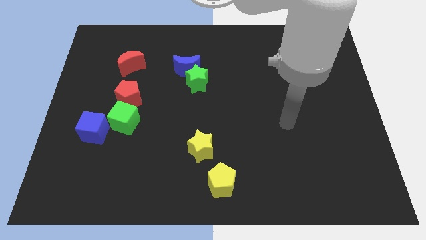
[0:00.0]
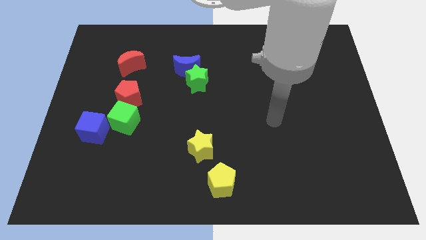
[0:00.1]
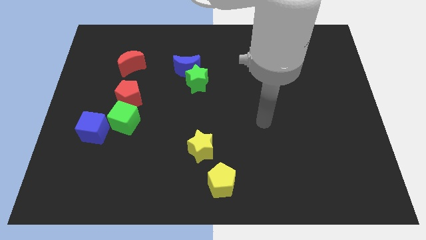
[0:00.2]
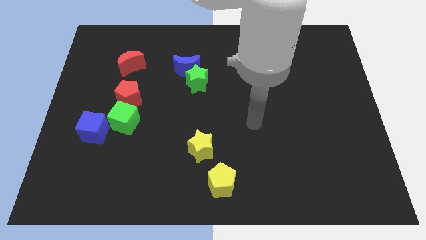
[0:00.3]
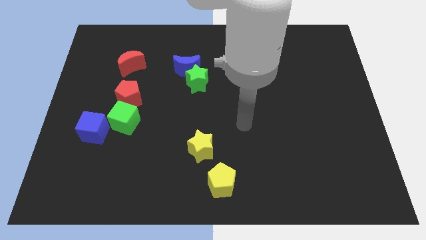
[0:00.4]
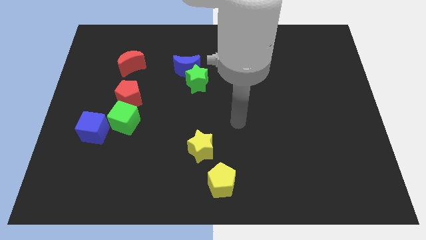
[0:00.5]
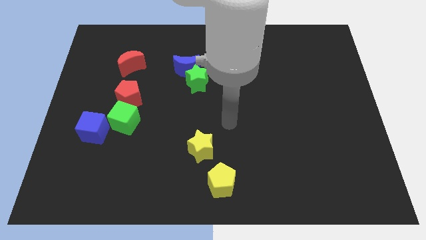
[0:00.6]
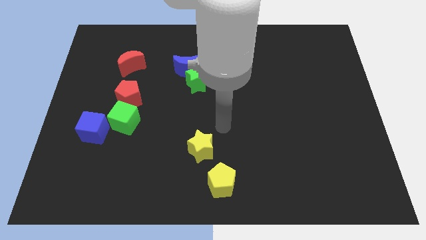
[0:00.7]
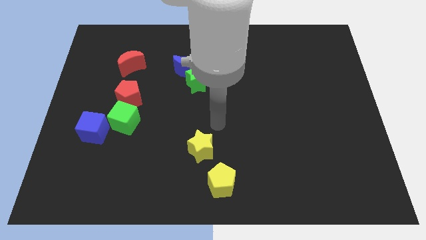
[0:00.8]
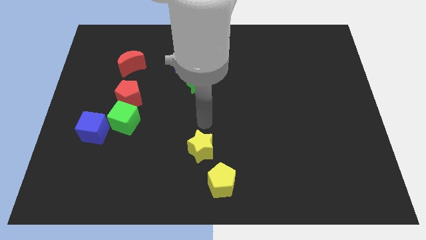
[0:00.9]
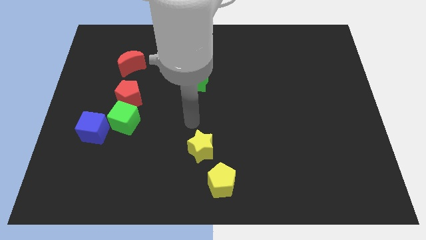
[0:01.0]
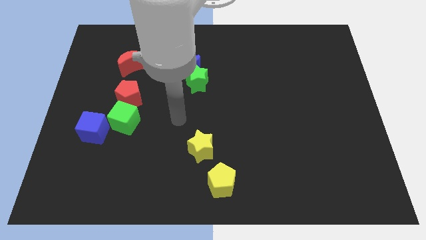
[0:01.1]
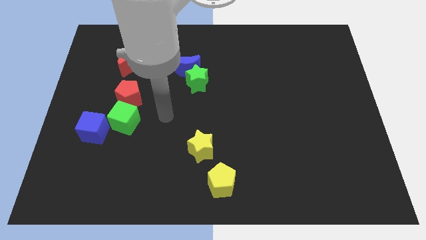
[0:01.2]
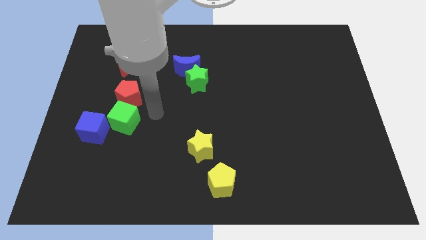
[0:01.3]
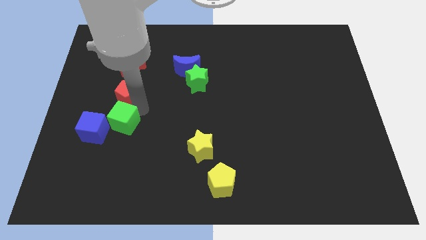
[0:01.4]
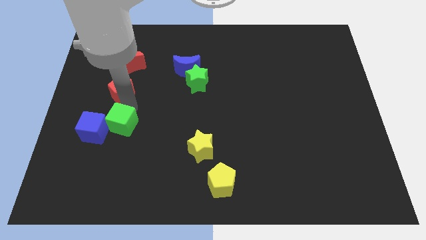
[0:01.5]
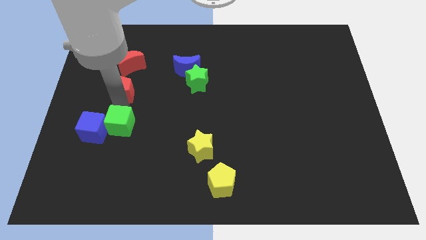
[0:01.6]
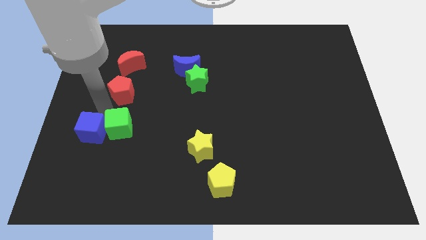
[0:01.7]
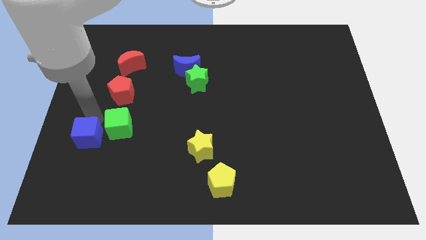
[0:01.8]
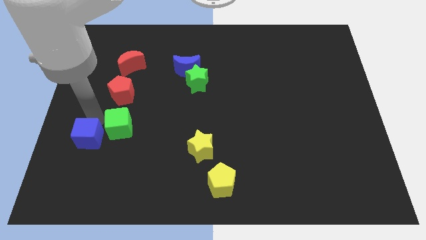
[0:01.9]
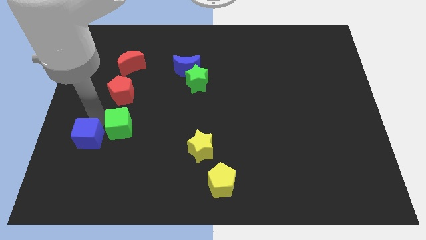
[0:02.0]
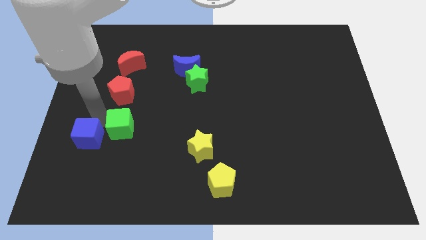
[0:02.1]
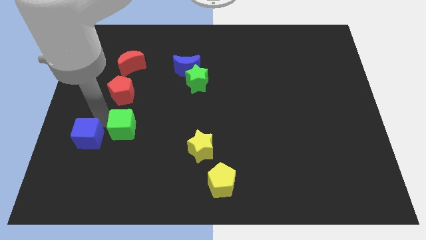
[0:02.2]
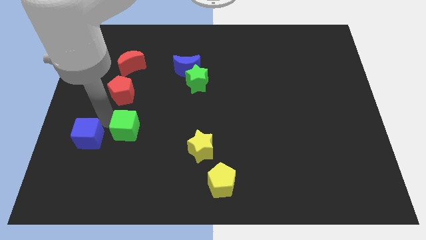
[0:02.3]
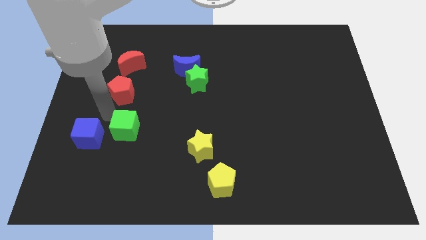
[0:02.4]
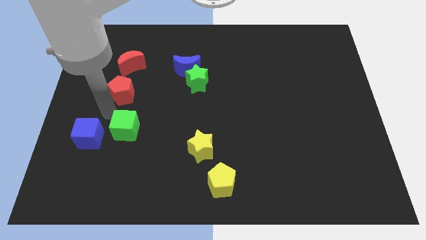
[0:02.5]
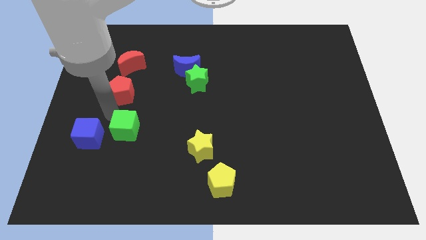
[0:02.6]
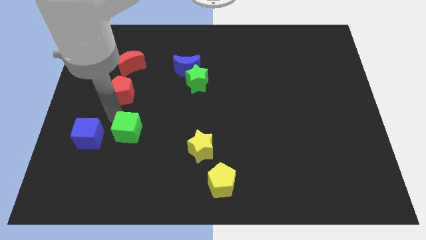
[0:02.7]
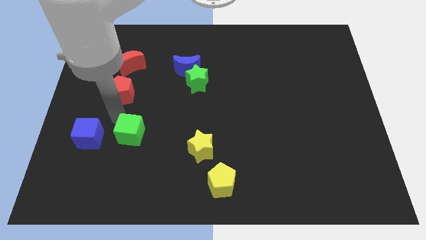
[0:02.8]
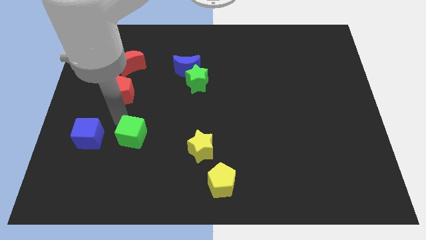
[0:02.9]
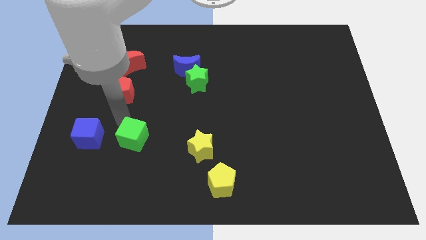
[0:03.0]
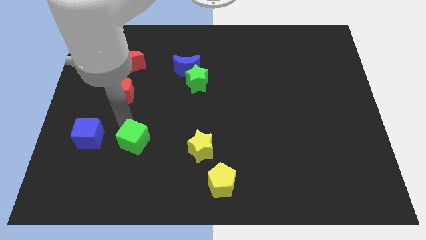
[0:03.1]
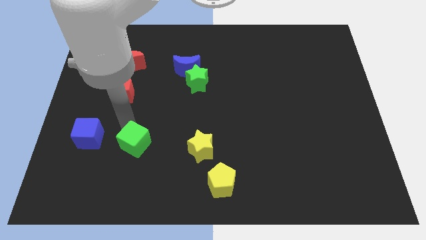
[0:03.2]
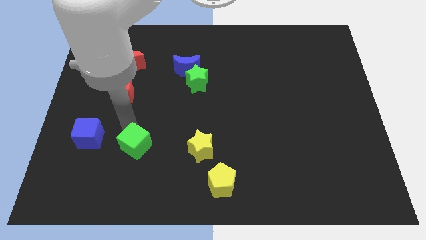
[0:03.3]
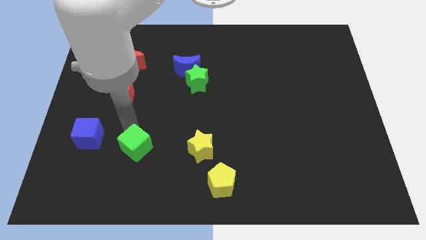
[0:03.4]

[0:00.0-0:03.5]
slightly slide the green cube downwards and to the right

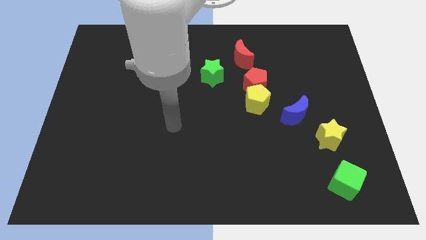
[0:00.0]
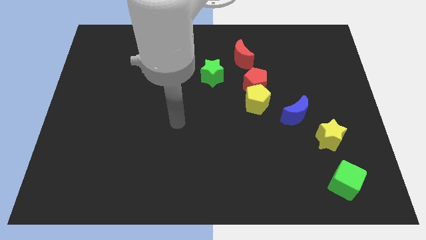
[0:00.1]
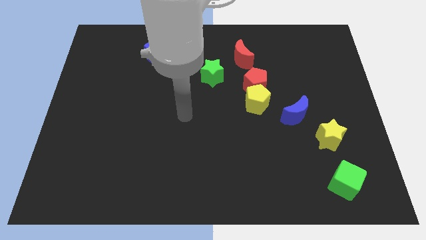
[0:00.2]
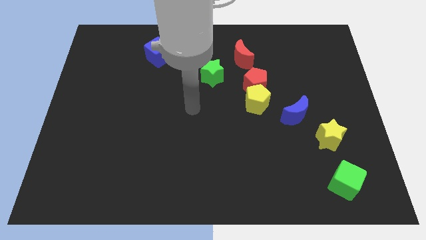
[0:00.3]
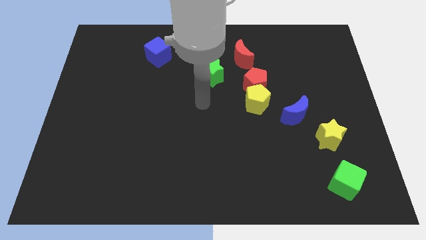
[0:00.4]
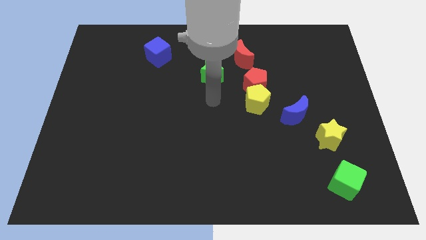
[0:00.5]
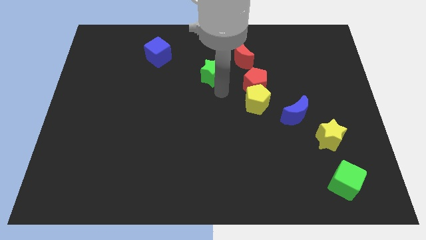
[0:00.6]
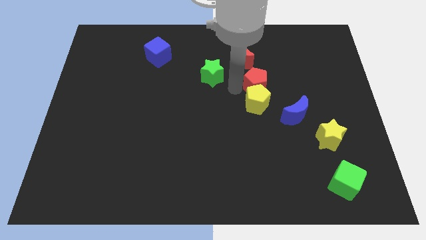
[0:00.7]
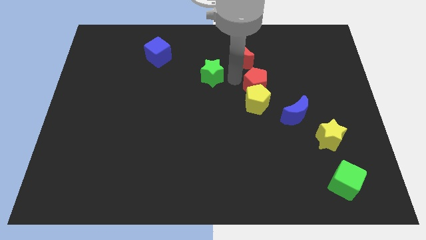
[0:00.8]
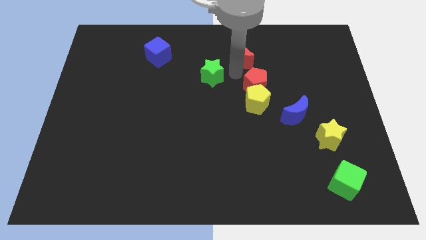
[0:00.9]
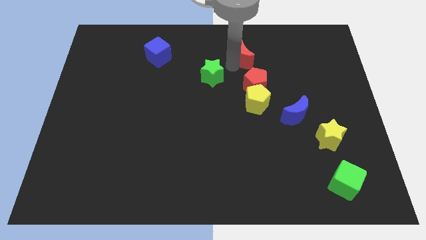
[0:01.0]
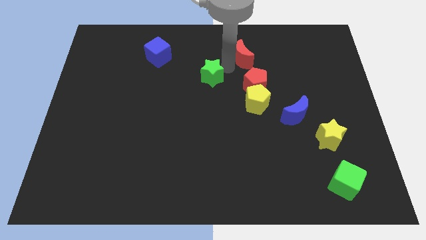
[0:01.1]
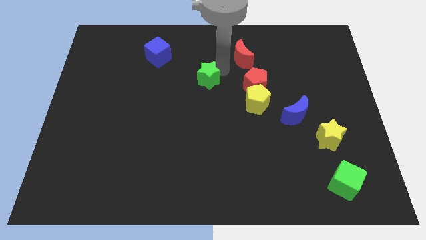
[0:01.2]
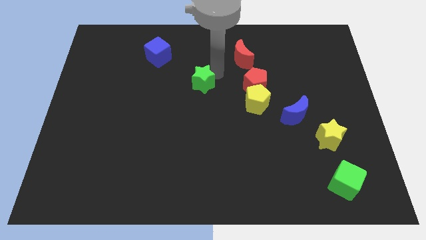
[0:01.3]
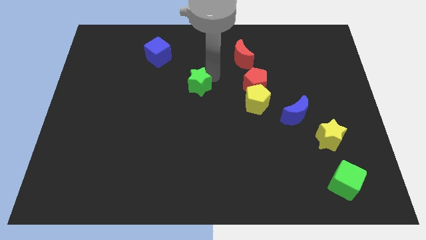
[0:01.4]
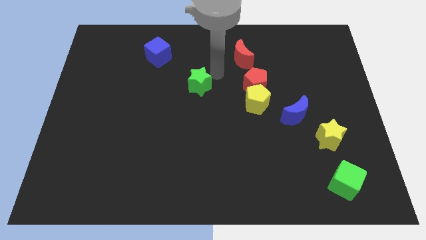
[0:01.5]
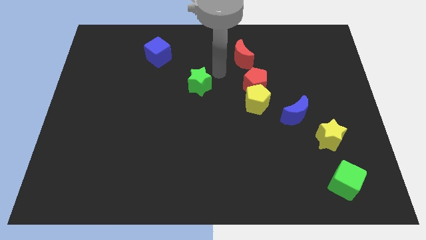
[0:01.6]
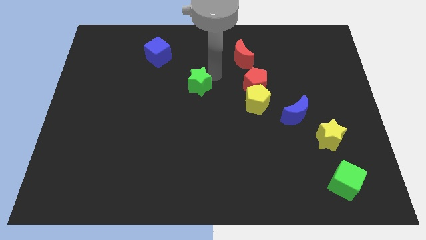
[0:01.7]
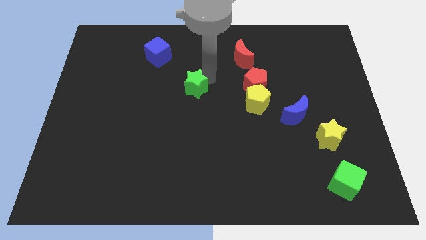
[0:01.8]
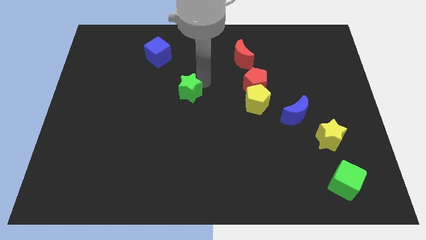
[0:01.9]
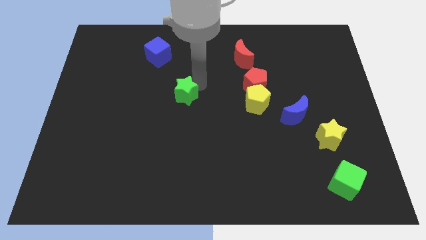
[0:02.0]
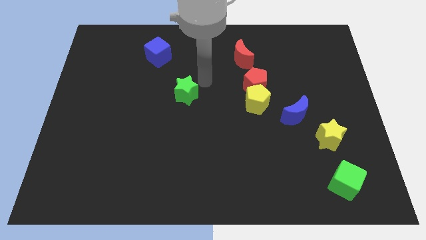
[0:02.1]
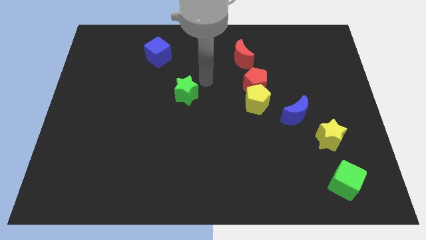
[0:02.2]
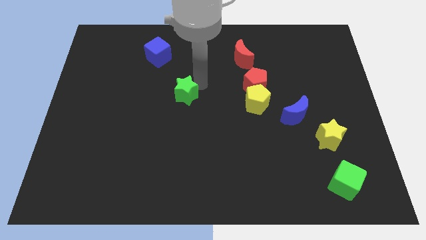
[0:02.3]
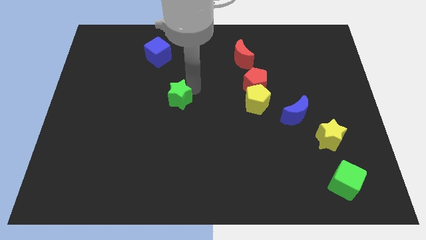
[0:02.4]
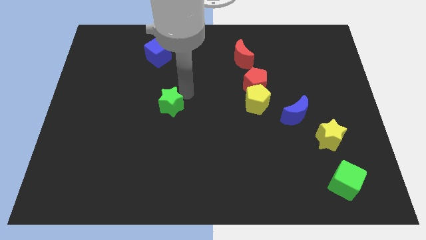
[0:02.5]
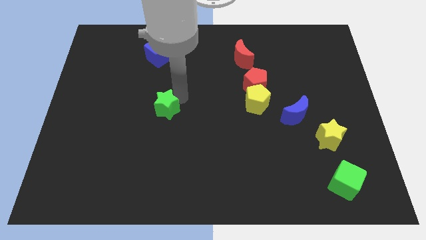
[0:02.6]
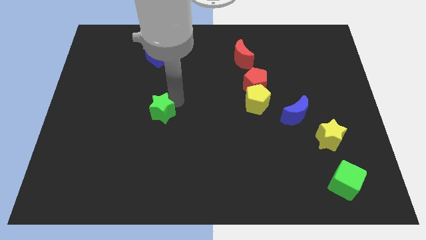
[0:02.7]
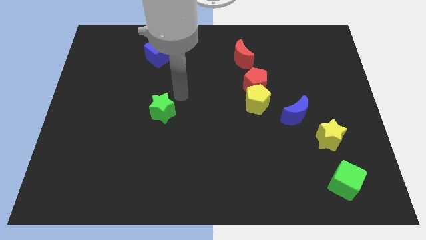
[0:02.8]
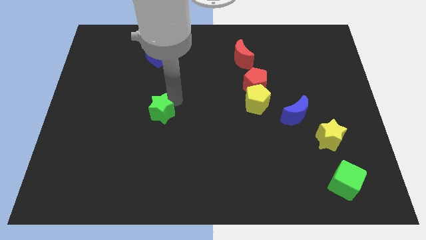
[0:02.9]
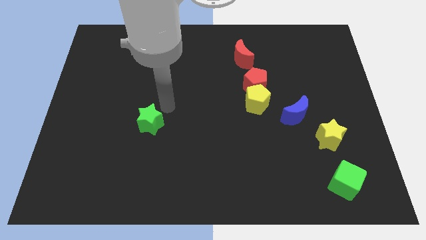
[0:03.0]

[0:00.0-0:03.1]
move the green star down and left diagonally

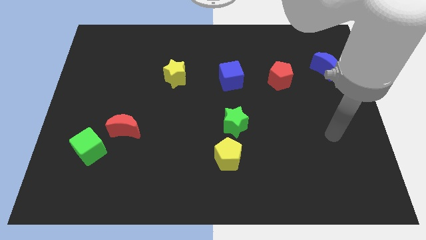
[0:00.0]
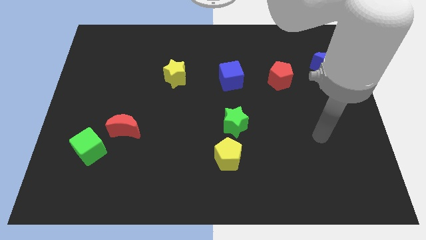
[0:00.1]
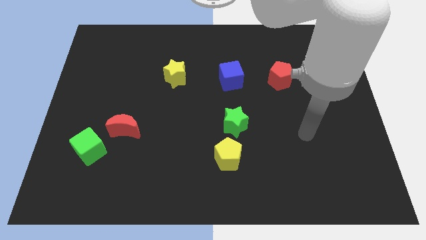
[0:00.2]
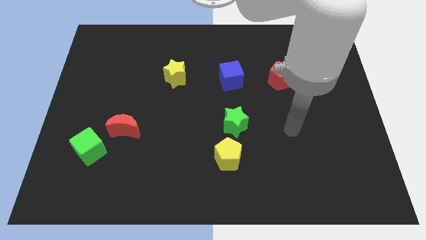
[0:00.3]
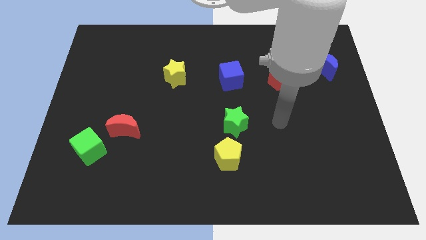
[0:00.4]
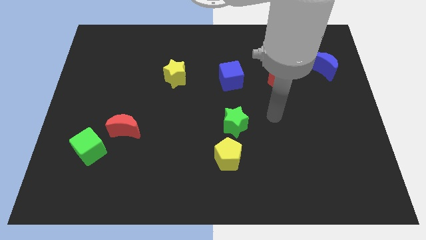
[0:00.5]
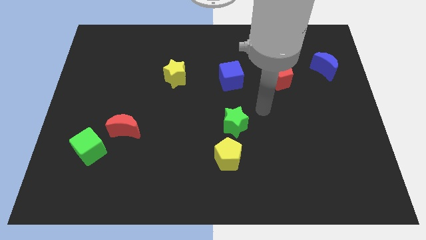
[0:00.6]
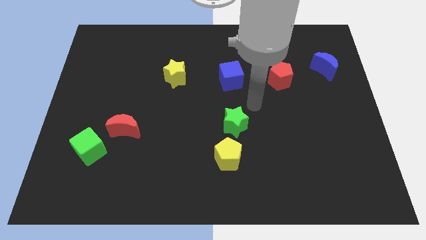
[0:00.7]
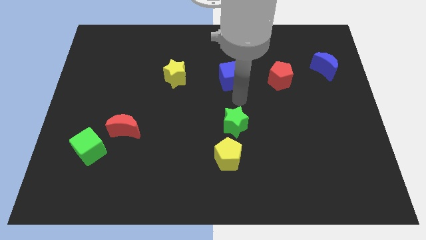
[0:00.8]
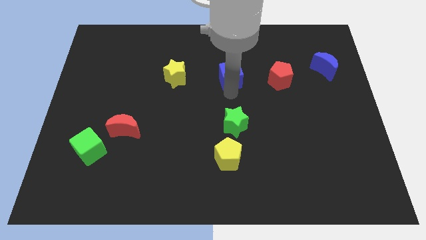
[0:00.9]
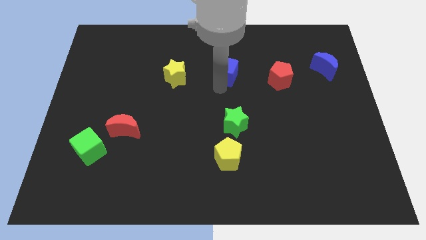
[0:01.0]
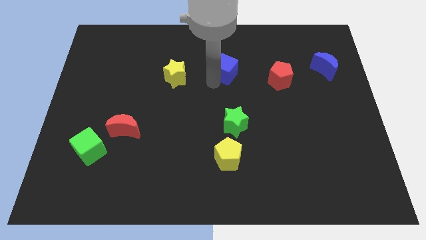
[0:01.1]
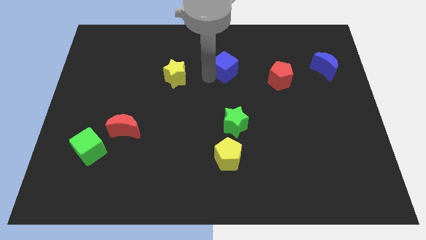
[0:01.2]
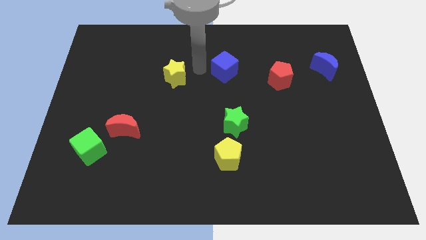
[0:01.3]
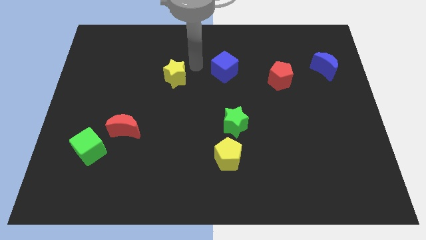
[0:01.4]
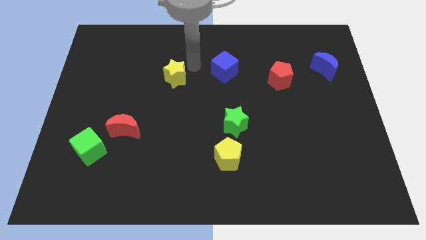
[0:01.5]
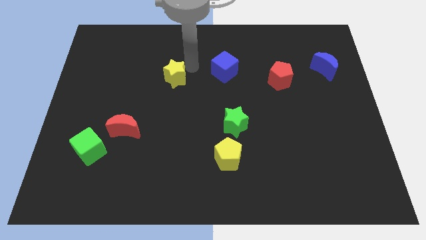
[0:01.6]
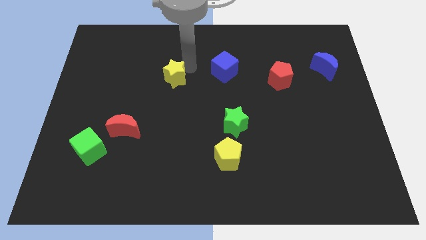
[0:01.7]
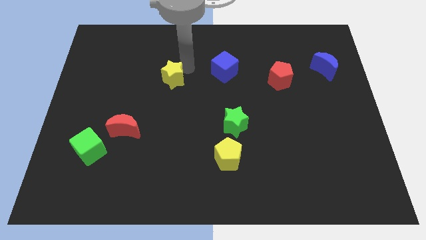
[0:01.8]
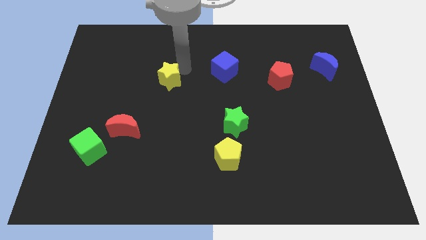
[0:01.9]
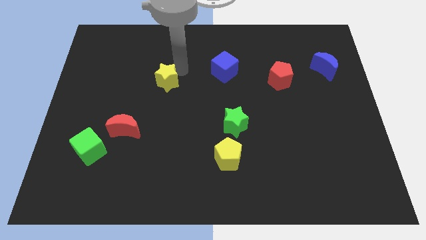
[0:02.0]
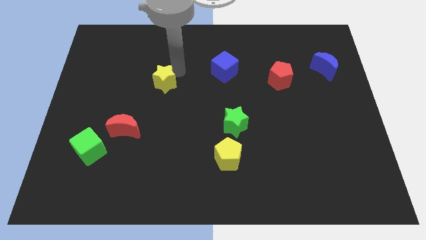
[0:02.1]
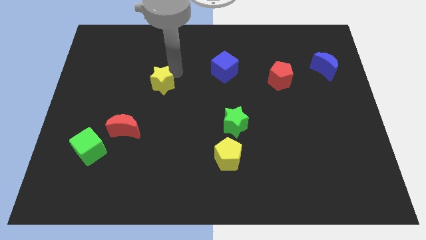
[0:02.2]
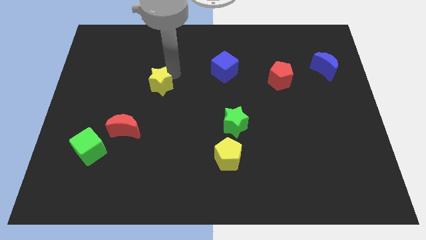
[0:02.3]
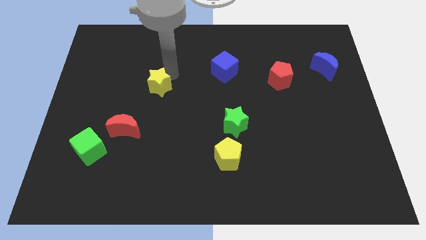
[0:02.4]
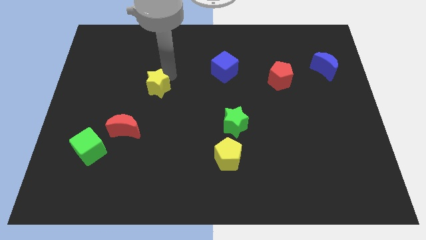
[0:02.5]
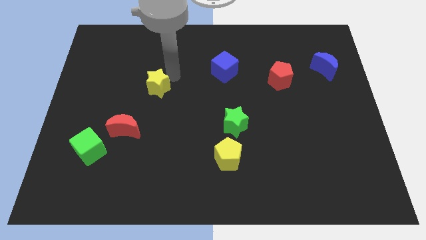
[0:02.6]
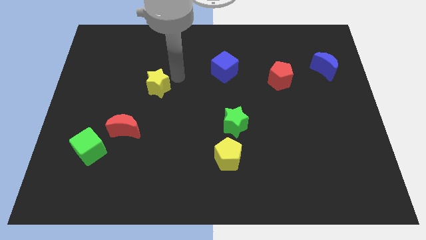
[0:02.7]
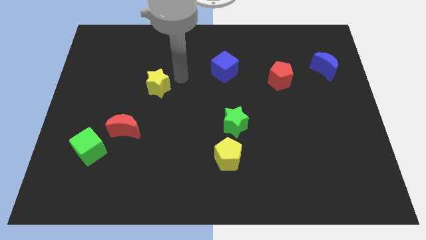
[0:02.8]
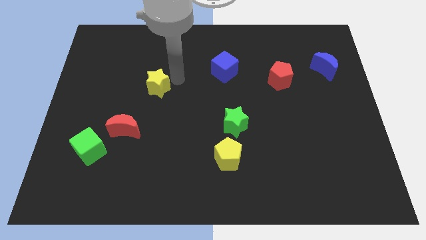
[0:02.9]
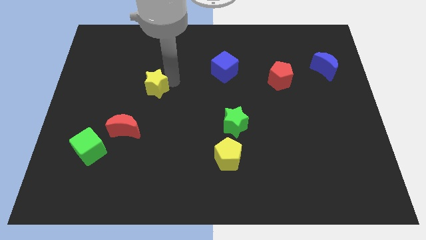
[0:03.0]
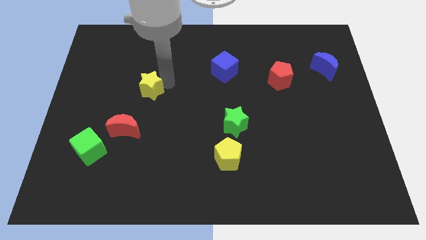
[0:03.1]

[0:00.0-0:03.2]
slightly slide the yellow star down and then to the left
